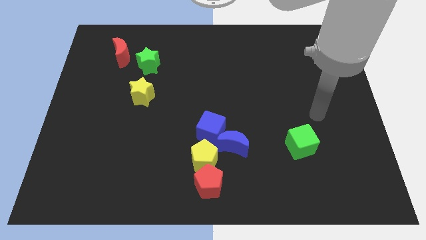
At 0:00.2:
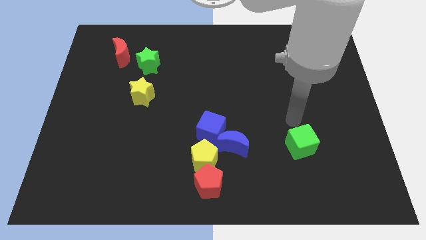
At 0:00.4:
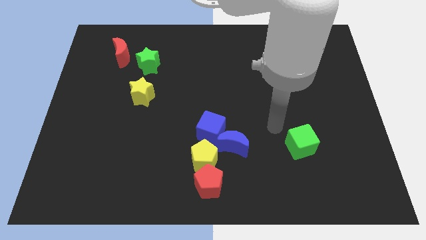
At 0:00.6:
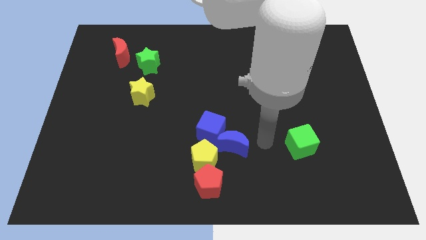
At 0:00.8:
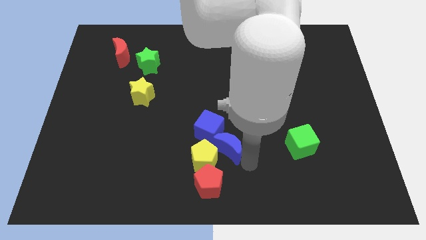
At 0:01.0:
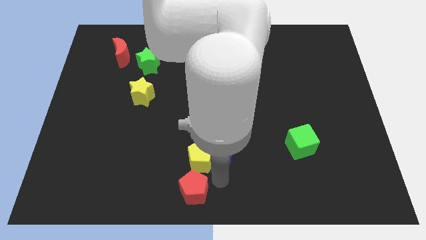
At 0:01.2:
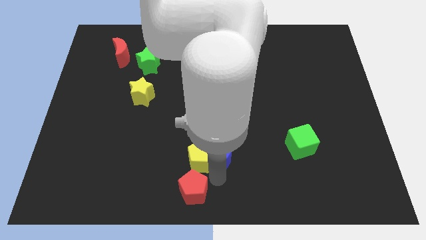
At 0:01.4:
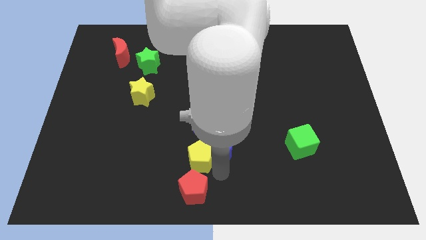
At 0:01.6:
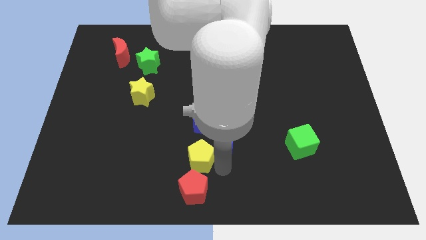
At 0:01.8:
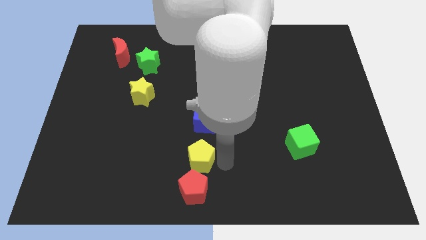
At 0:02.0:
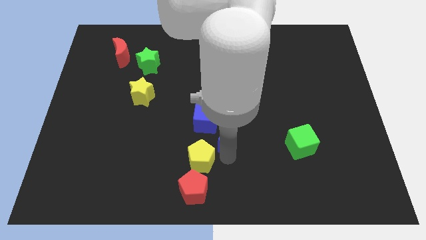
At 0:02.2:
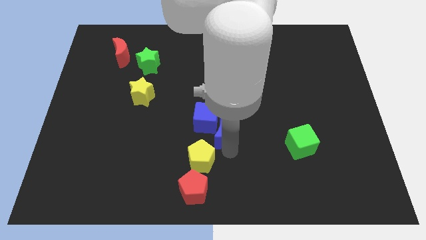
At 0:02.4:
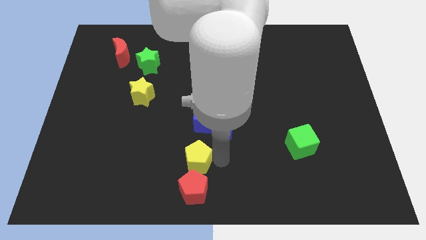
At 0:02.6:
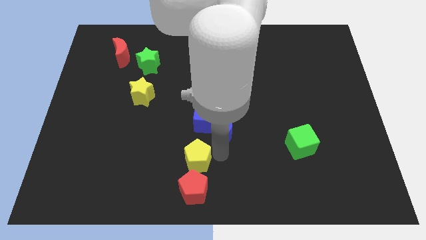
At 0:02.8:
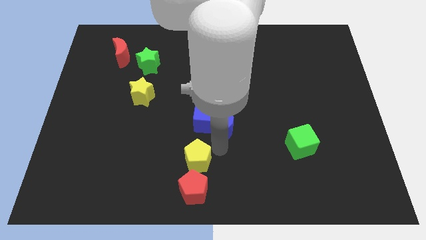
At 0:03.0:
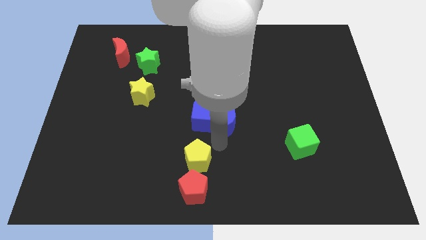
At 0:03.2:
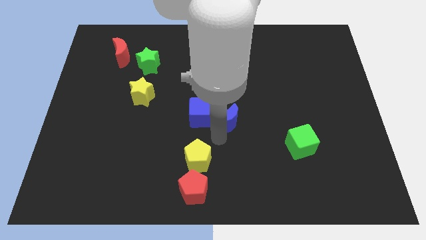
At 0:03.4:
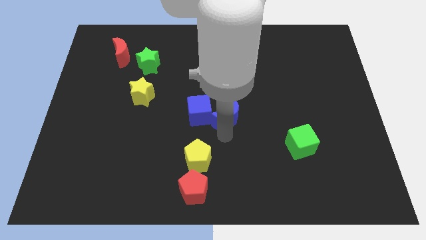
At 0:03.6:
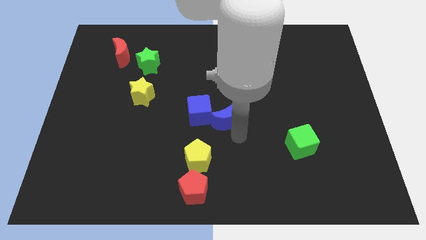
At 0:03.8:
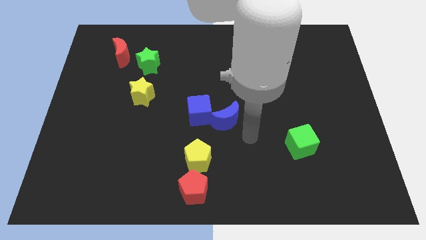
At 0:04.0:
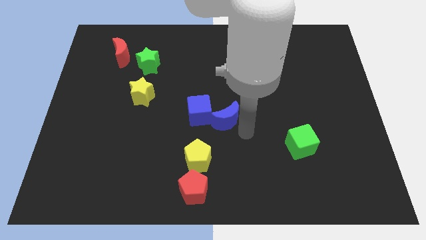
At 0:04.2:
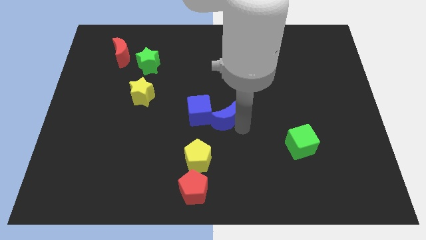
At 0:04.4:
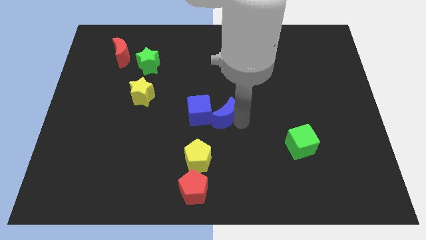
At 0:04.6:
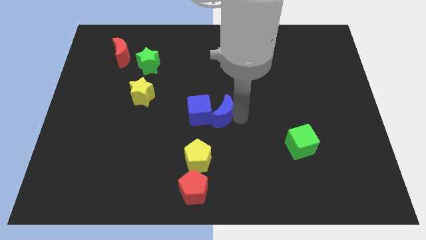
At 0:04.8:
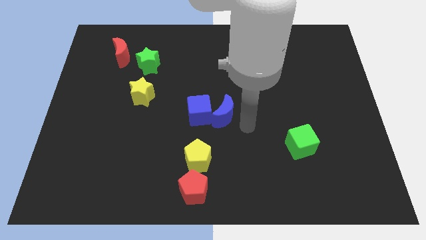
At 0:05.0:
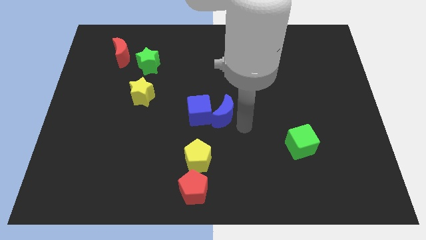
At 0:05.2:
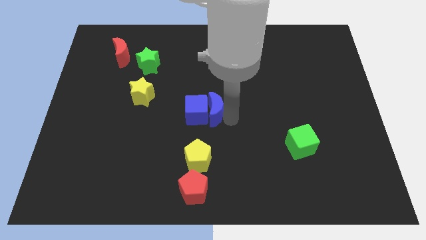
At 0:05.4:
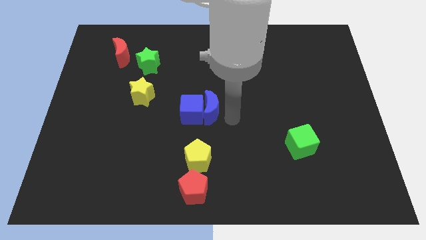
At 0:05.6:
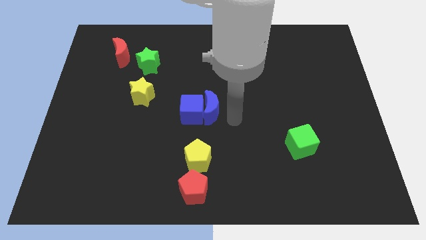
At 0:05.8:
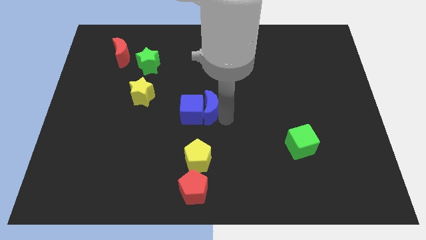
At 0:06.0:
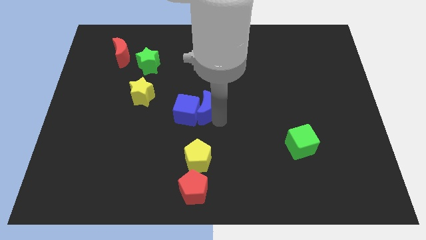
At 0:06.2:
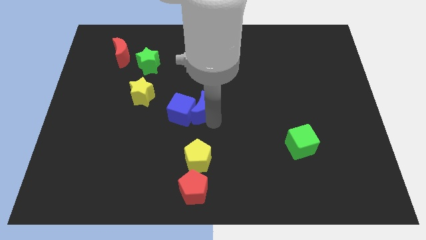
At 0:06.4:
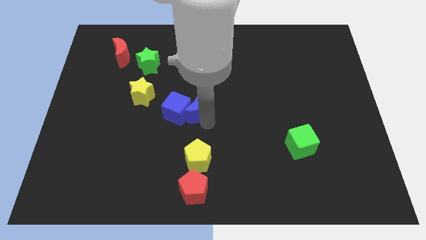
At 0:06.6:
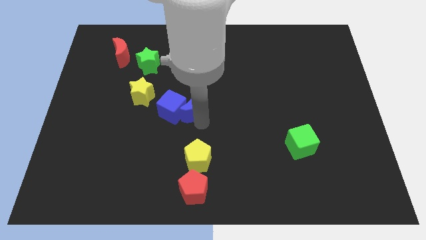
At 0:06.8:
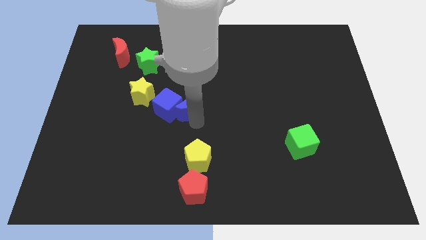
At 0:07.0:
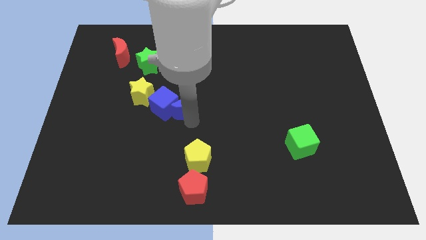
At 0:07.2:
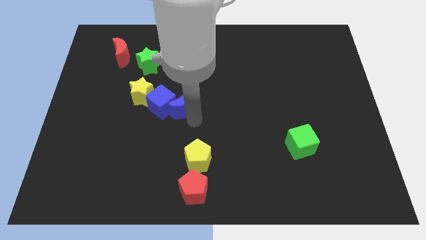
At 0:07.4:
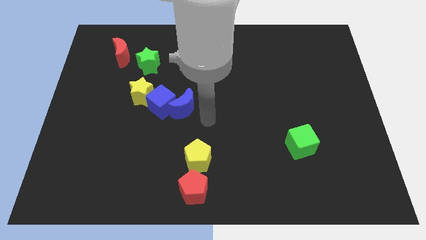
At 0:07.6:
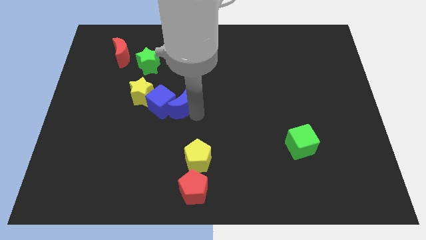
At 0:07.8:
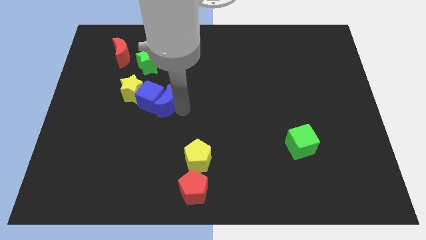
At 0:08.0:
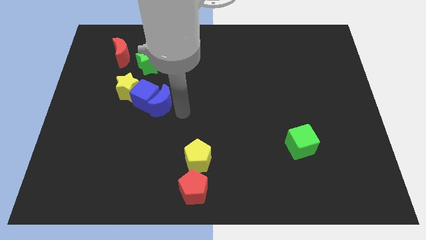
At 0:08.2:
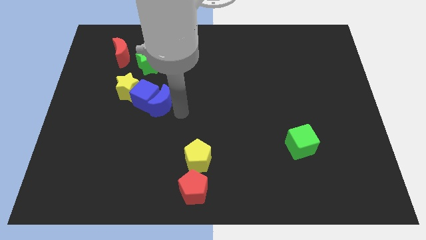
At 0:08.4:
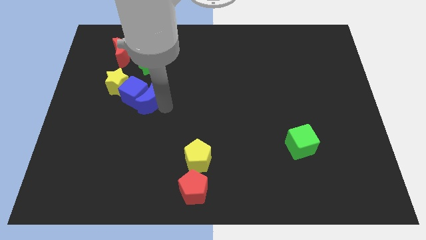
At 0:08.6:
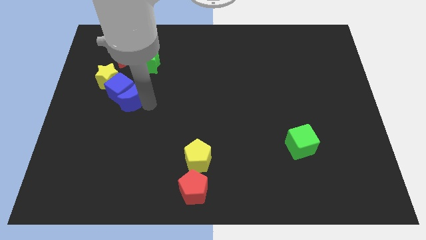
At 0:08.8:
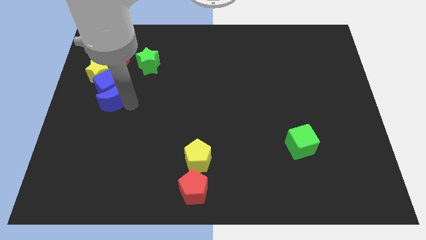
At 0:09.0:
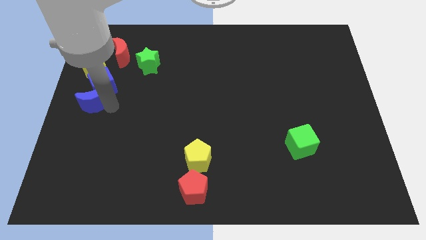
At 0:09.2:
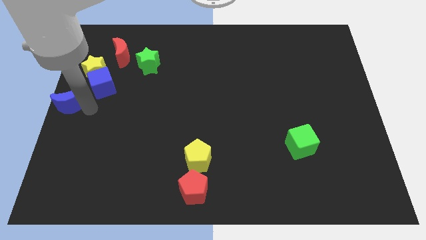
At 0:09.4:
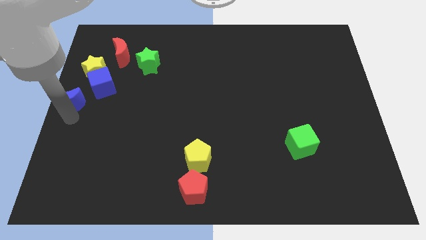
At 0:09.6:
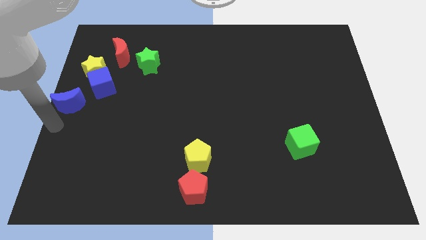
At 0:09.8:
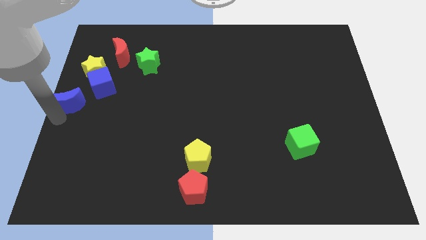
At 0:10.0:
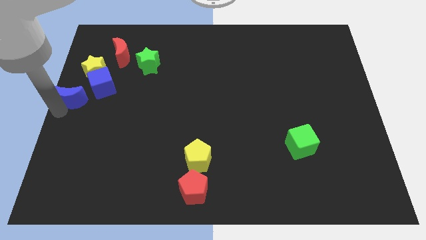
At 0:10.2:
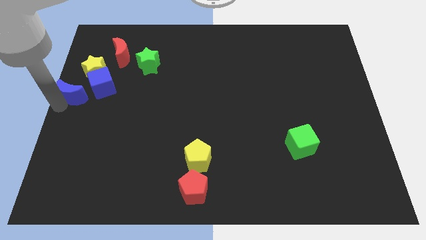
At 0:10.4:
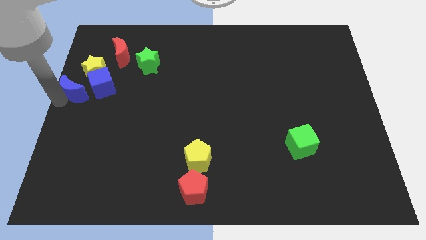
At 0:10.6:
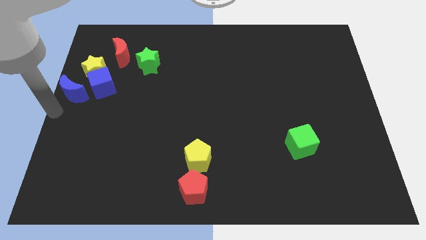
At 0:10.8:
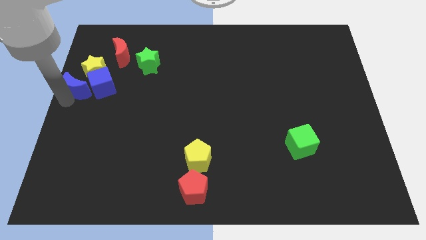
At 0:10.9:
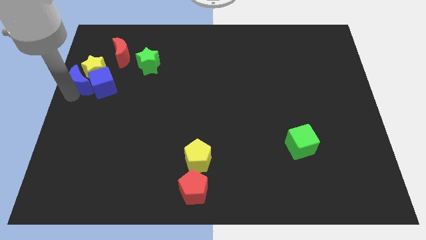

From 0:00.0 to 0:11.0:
put the blue moon next to the yellow star

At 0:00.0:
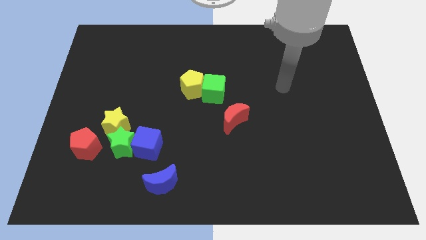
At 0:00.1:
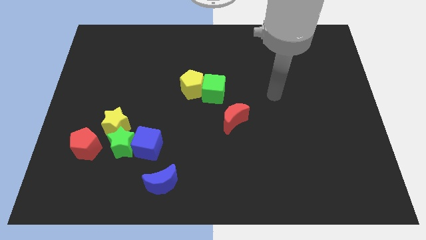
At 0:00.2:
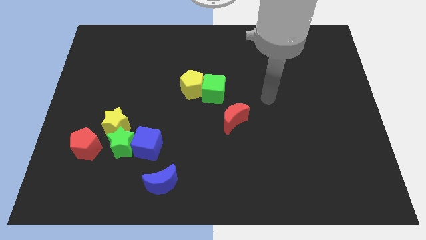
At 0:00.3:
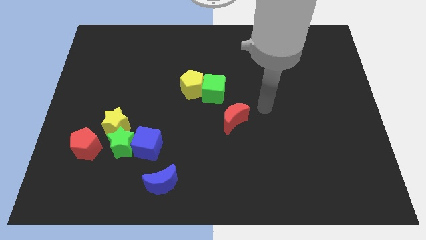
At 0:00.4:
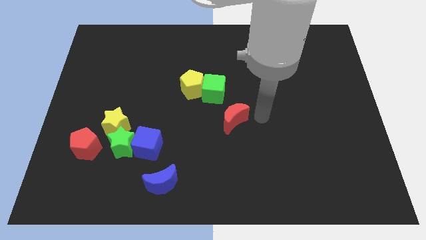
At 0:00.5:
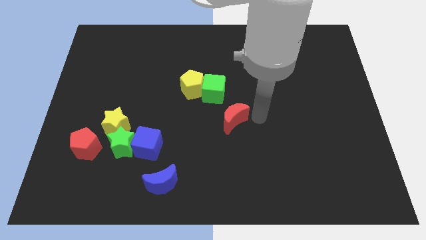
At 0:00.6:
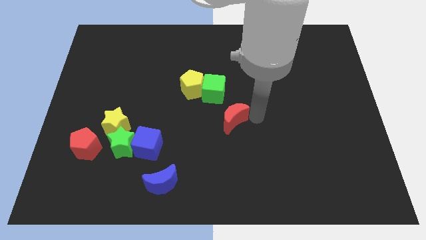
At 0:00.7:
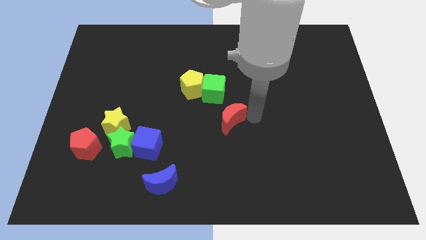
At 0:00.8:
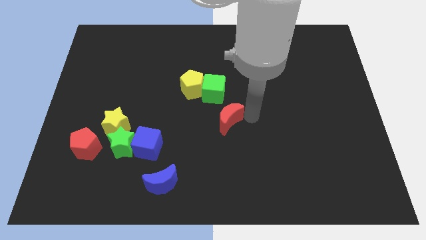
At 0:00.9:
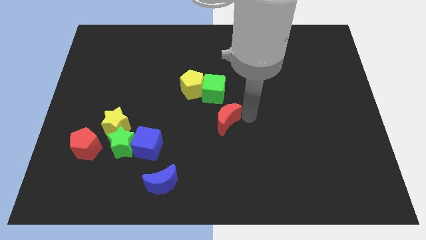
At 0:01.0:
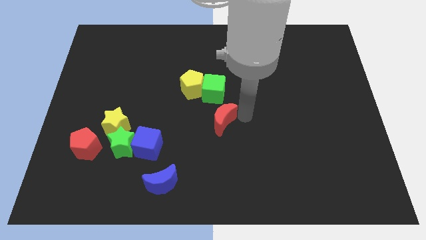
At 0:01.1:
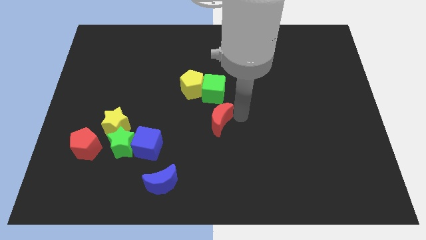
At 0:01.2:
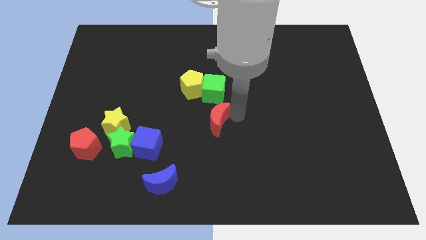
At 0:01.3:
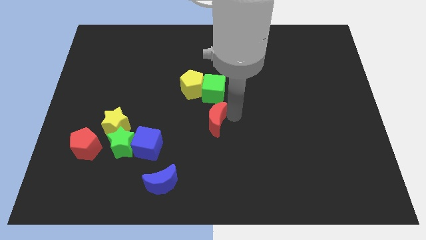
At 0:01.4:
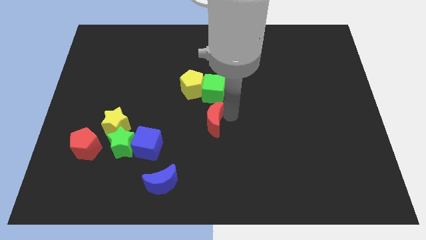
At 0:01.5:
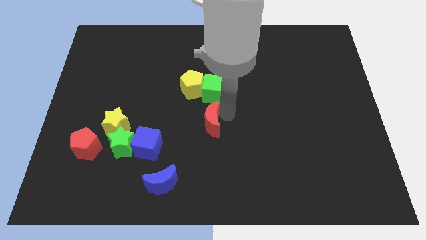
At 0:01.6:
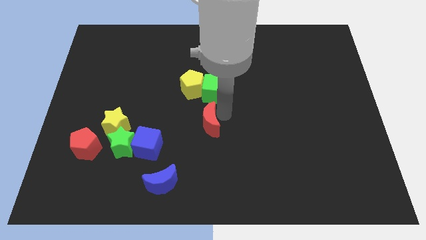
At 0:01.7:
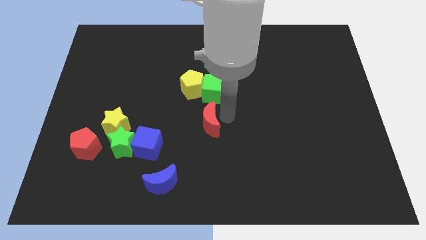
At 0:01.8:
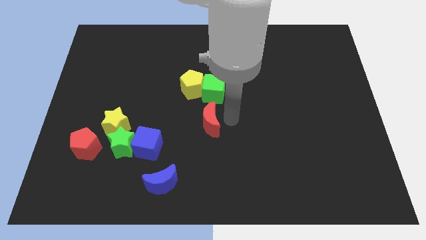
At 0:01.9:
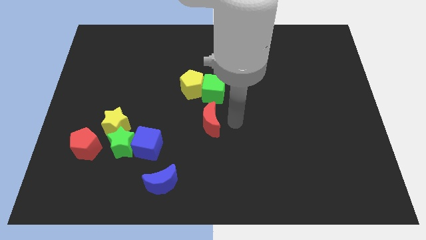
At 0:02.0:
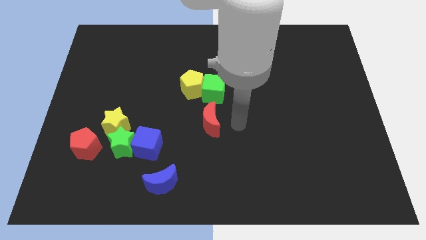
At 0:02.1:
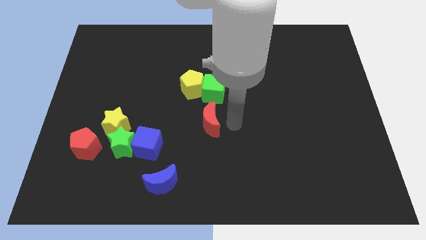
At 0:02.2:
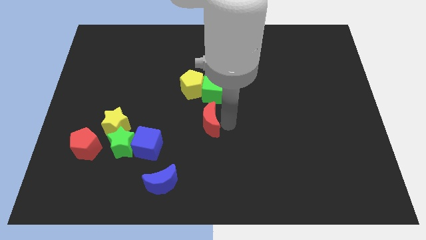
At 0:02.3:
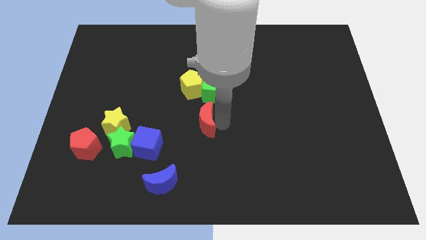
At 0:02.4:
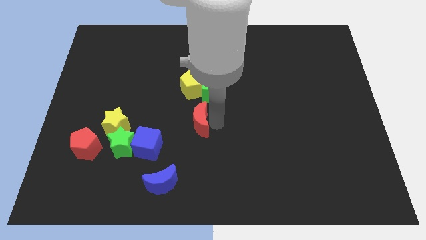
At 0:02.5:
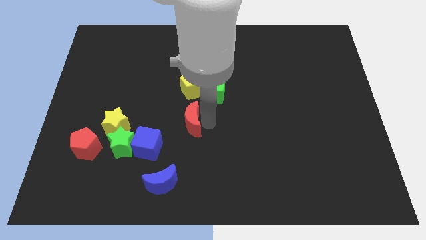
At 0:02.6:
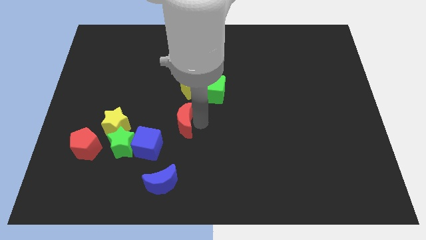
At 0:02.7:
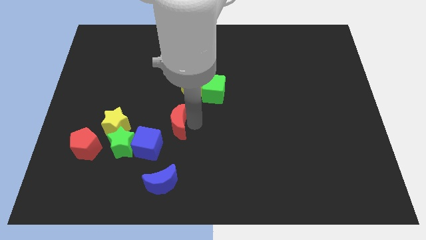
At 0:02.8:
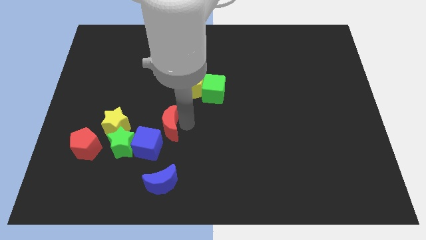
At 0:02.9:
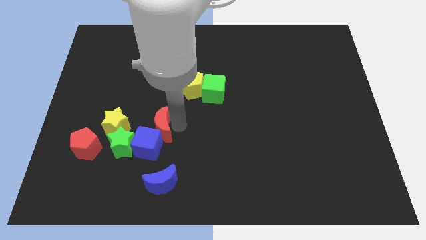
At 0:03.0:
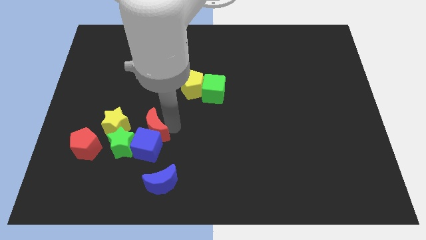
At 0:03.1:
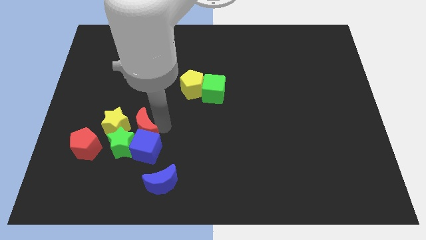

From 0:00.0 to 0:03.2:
put the red moon close to the green star
